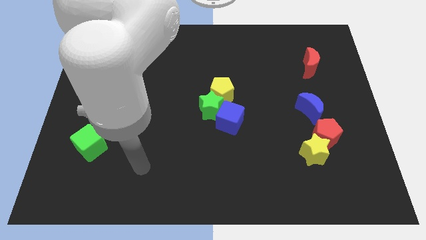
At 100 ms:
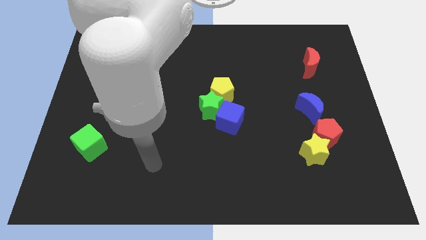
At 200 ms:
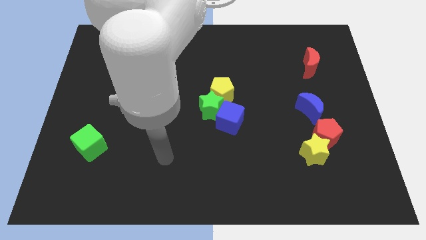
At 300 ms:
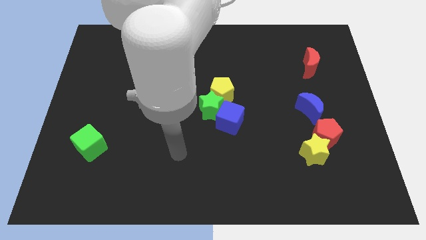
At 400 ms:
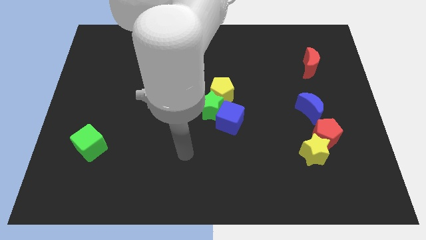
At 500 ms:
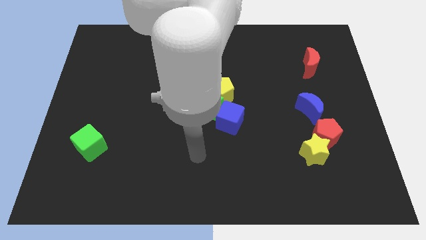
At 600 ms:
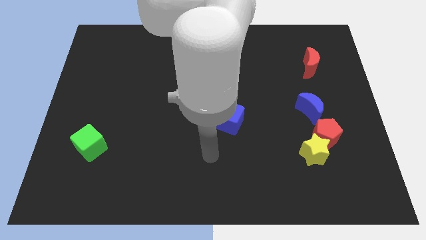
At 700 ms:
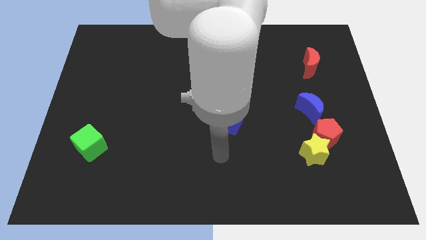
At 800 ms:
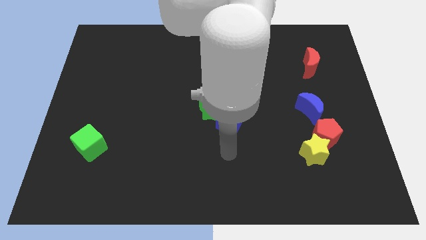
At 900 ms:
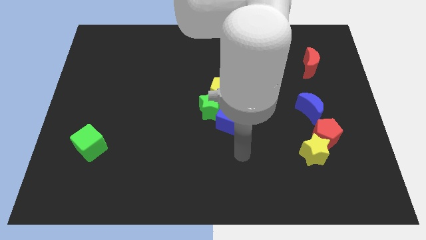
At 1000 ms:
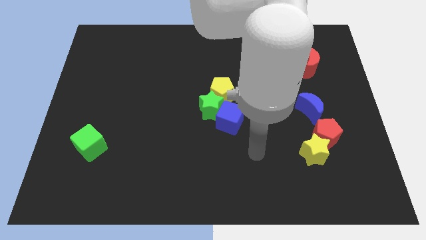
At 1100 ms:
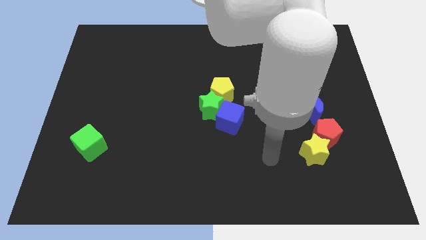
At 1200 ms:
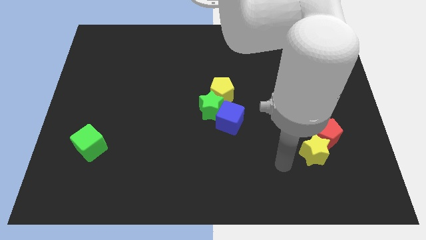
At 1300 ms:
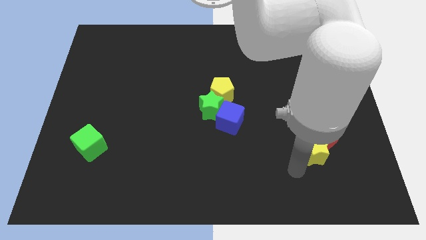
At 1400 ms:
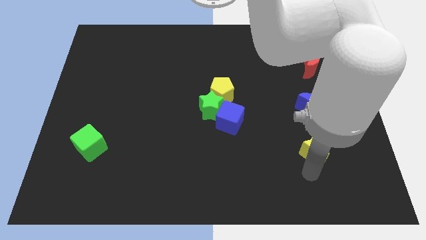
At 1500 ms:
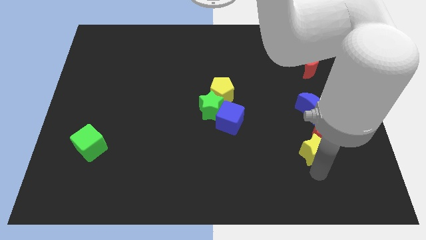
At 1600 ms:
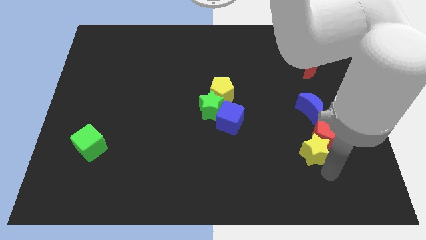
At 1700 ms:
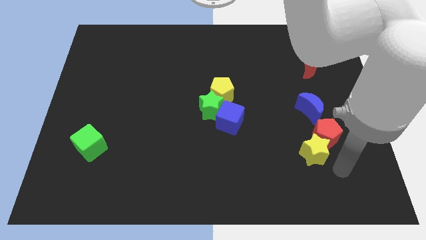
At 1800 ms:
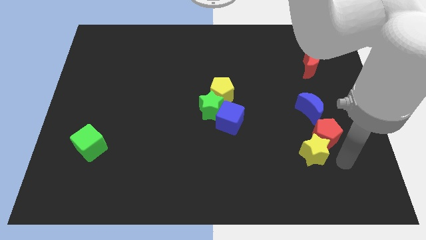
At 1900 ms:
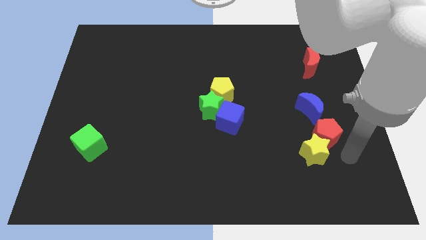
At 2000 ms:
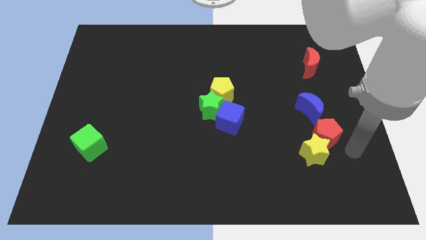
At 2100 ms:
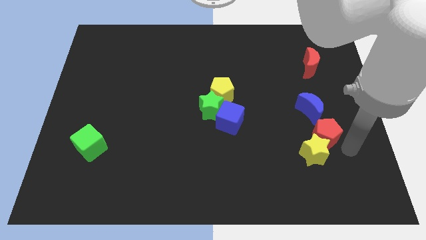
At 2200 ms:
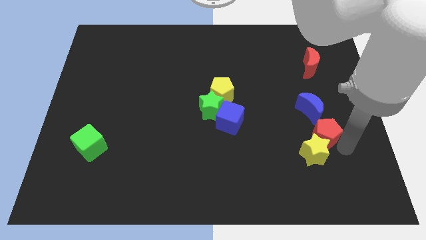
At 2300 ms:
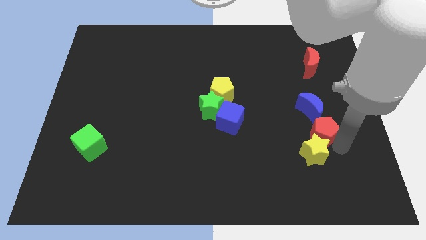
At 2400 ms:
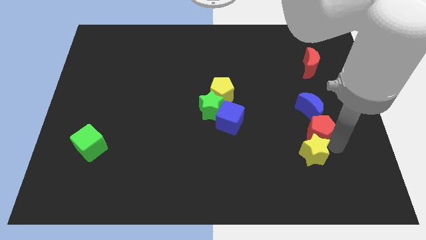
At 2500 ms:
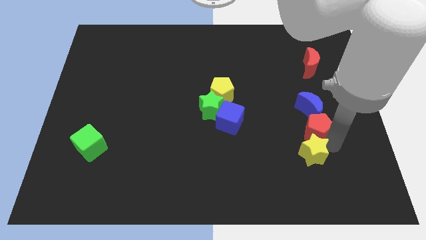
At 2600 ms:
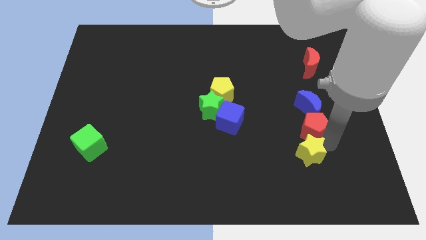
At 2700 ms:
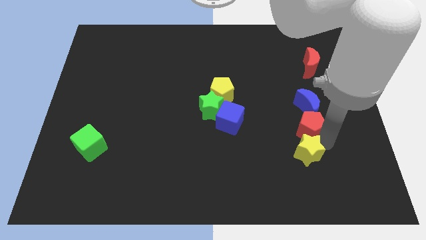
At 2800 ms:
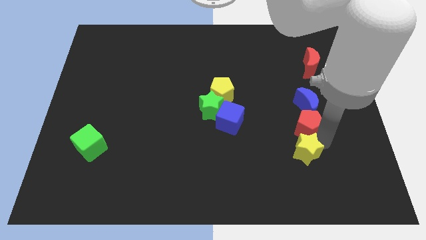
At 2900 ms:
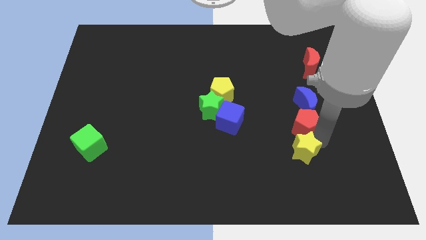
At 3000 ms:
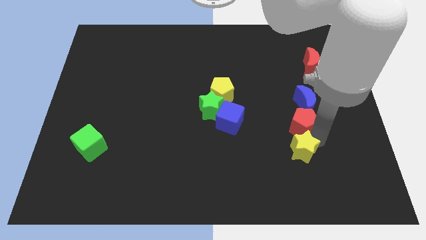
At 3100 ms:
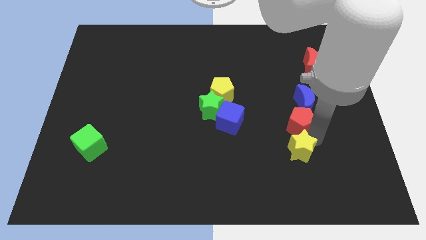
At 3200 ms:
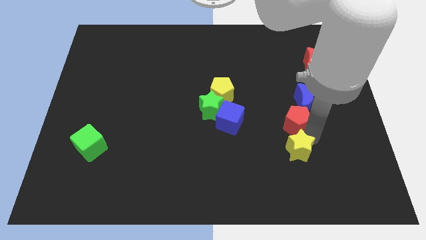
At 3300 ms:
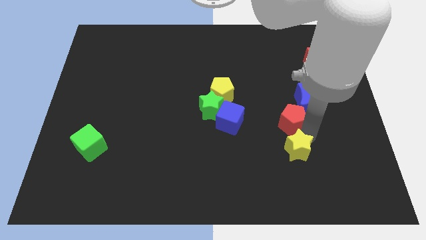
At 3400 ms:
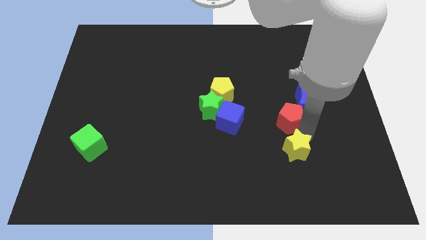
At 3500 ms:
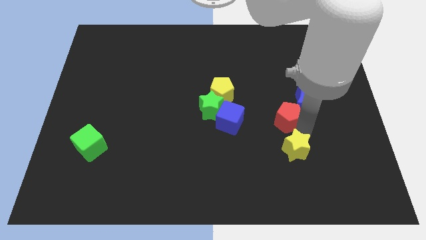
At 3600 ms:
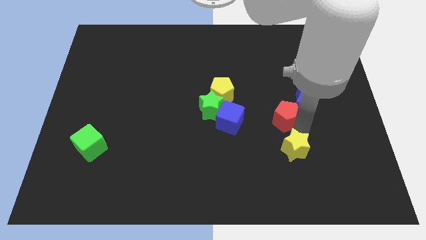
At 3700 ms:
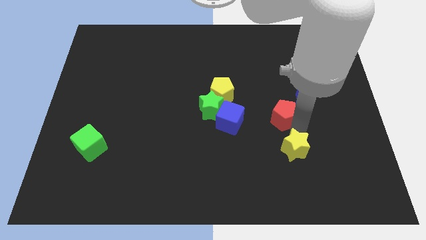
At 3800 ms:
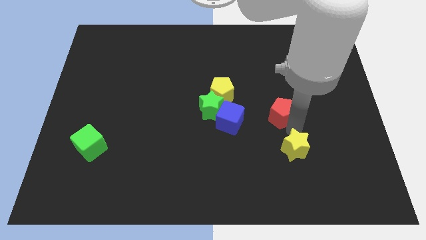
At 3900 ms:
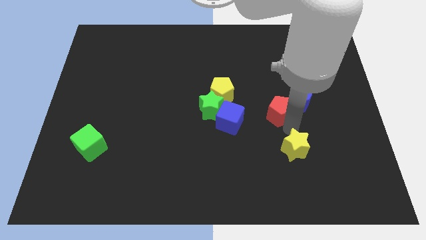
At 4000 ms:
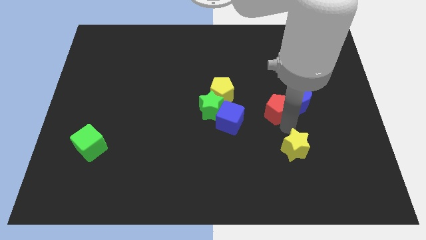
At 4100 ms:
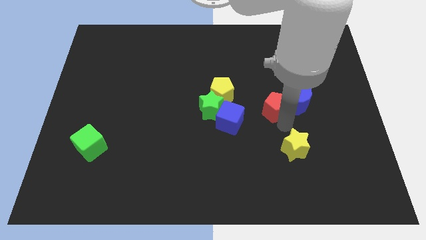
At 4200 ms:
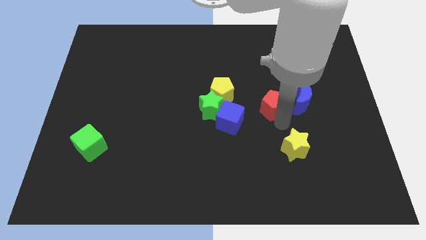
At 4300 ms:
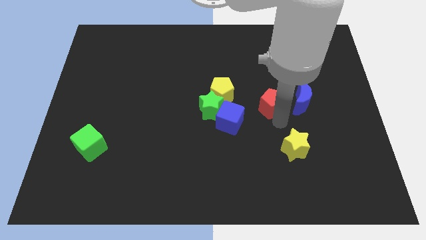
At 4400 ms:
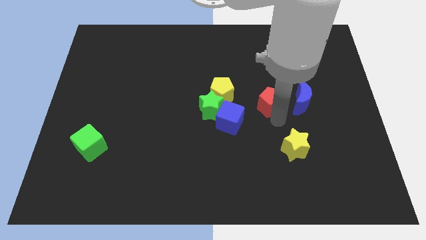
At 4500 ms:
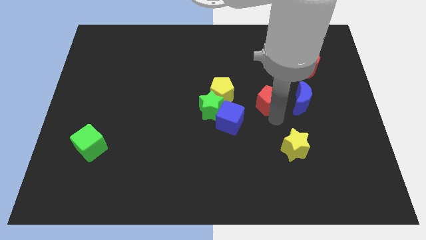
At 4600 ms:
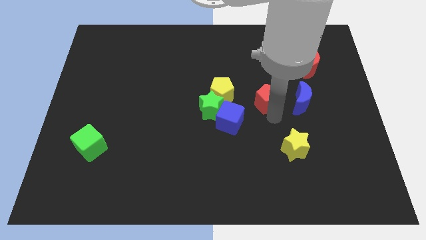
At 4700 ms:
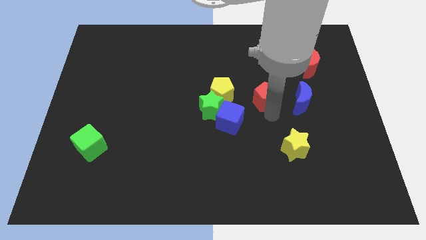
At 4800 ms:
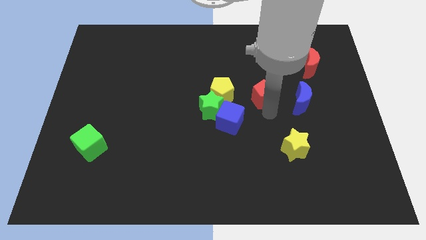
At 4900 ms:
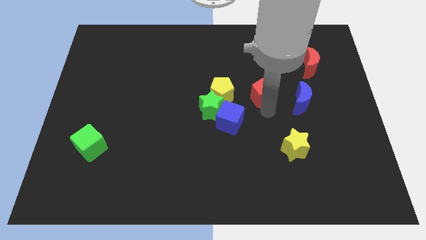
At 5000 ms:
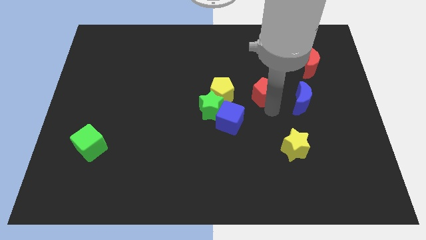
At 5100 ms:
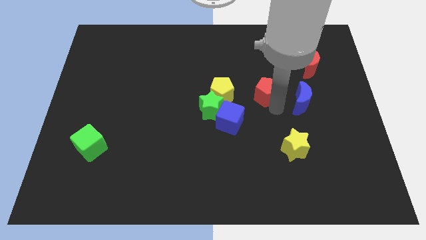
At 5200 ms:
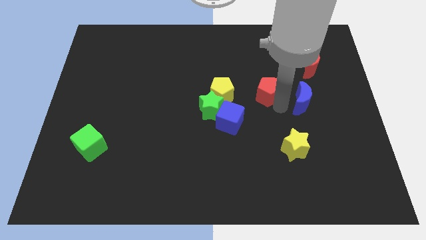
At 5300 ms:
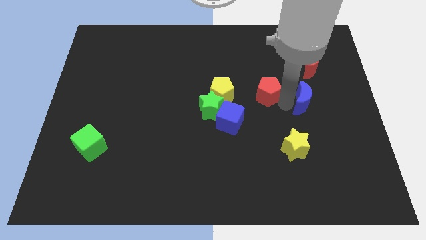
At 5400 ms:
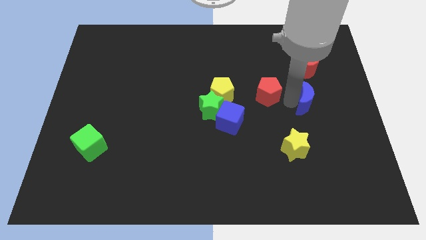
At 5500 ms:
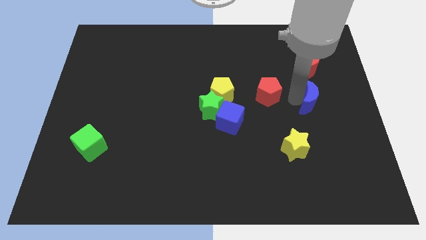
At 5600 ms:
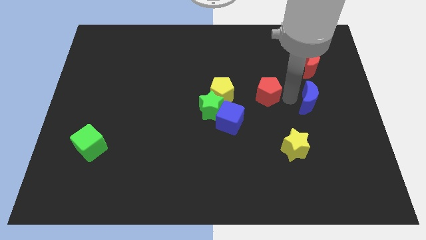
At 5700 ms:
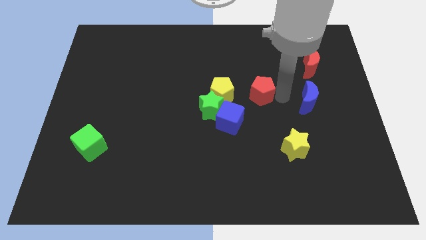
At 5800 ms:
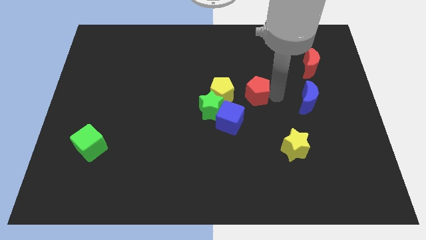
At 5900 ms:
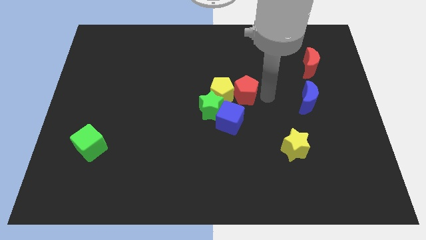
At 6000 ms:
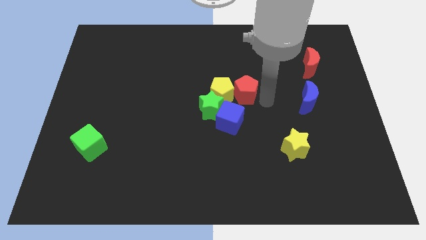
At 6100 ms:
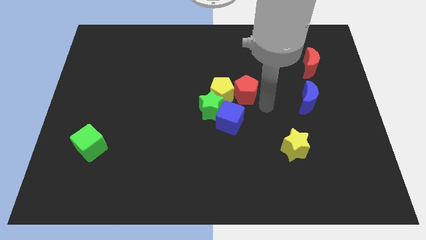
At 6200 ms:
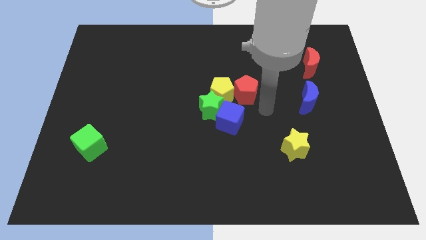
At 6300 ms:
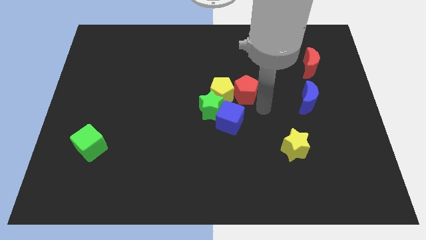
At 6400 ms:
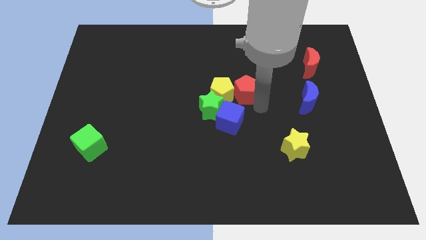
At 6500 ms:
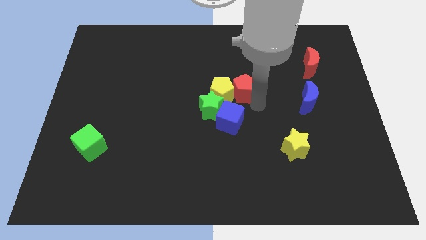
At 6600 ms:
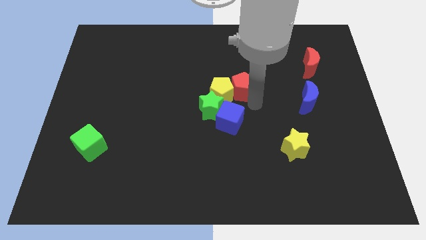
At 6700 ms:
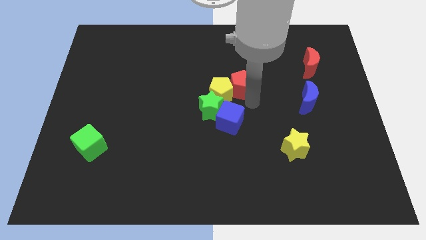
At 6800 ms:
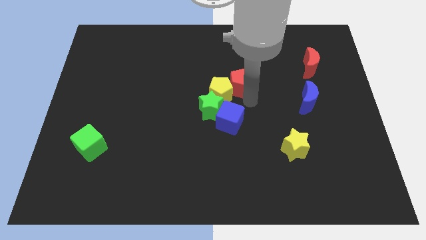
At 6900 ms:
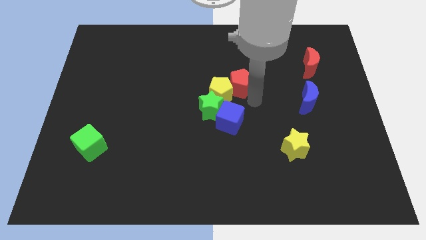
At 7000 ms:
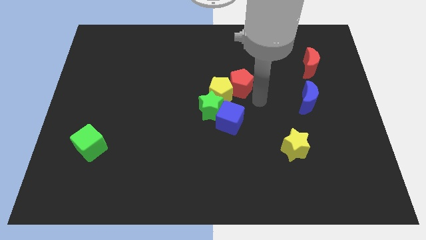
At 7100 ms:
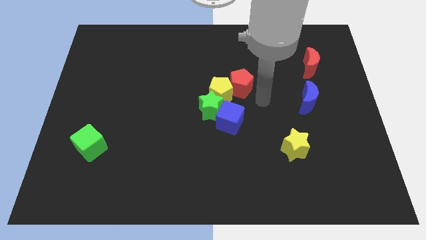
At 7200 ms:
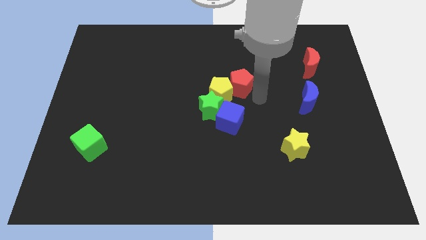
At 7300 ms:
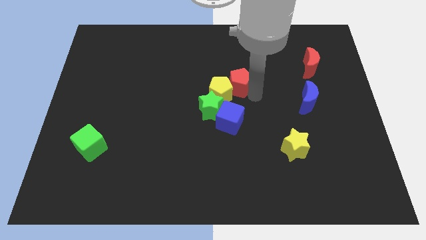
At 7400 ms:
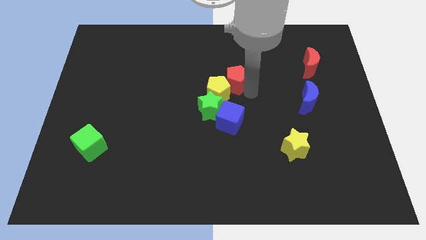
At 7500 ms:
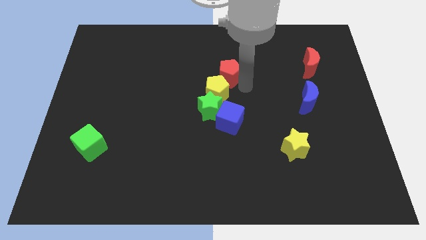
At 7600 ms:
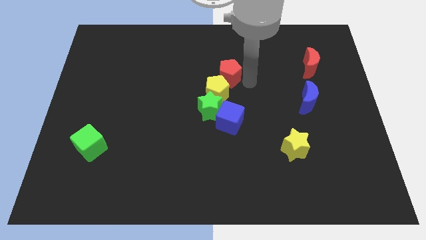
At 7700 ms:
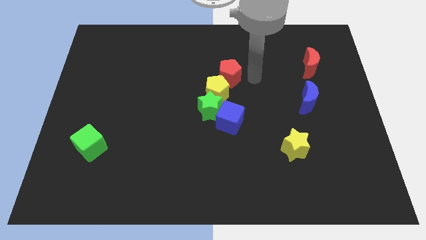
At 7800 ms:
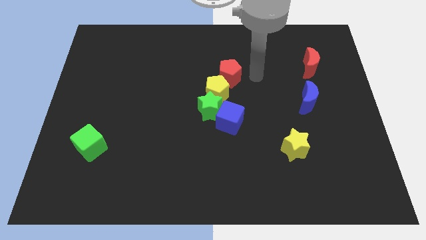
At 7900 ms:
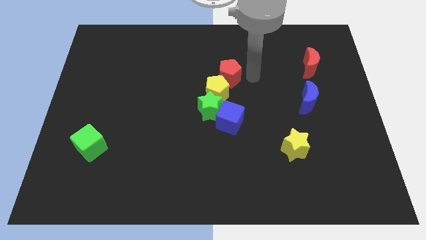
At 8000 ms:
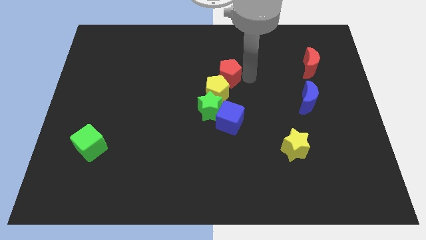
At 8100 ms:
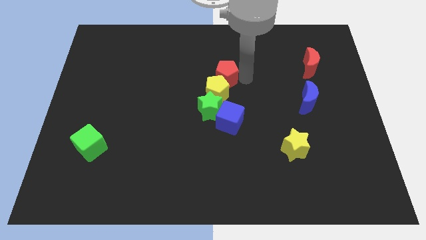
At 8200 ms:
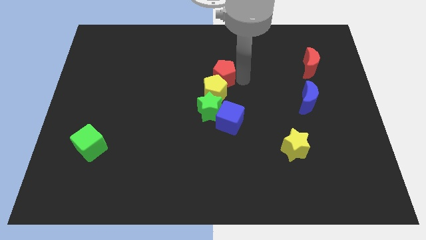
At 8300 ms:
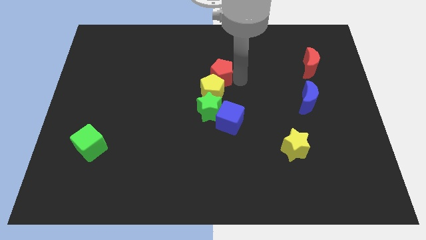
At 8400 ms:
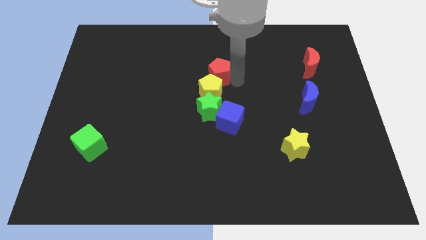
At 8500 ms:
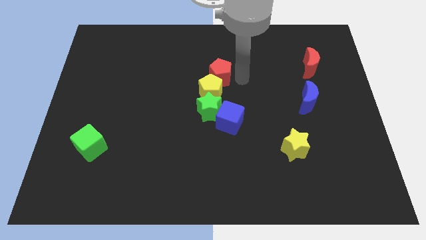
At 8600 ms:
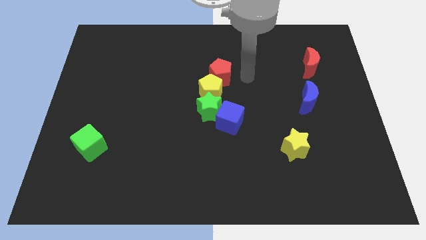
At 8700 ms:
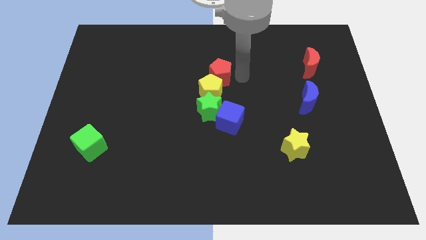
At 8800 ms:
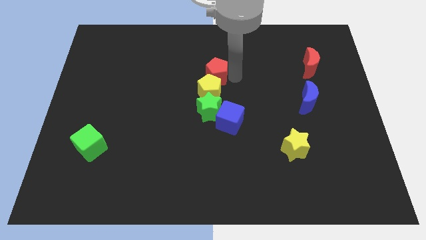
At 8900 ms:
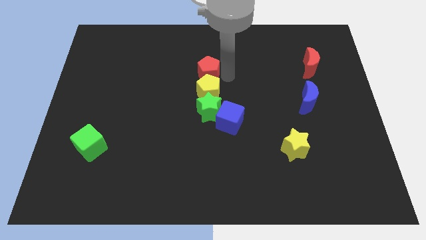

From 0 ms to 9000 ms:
slide the red pentagon to the top left of the yellow pentagon
